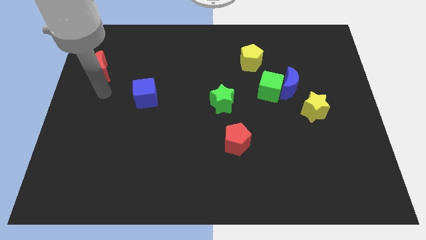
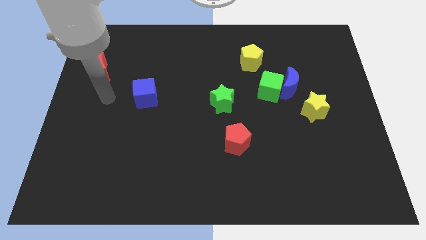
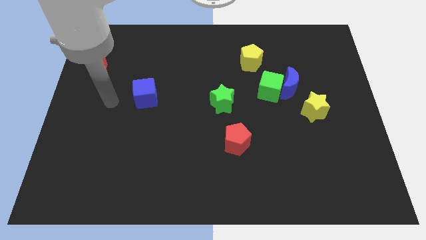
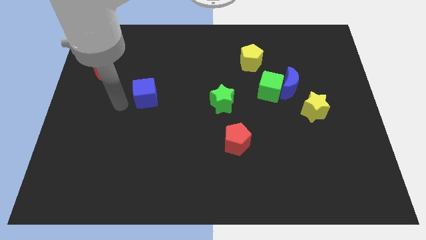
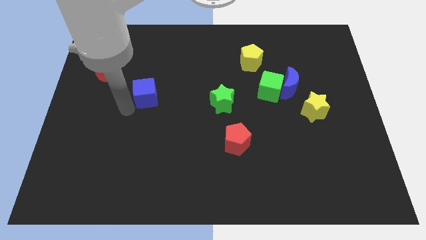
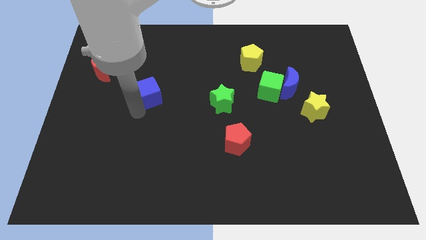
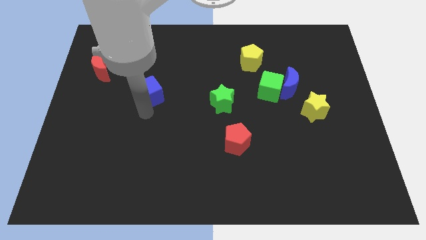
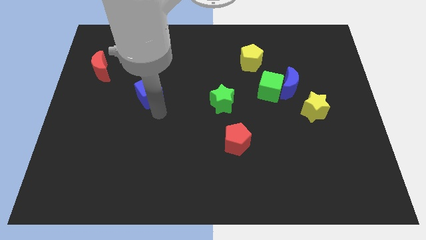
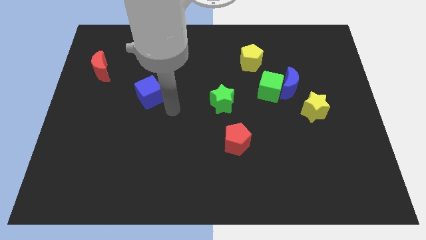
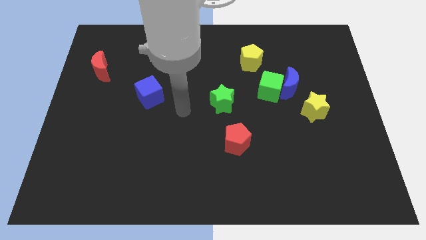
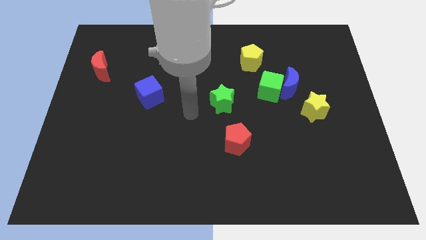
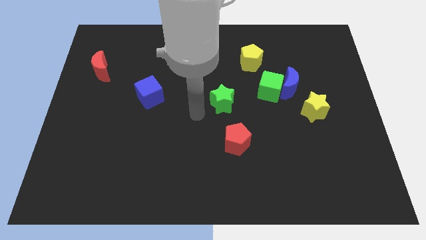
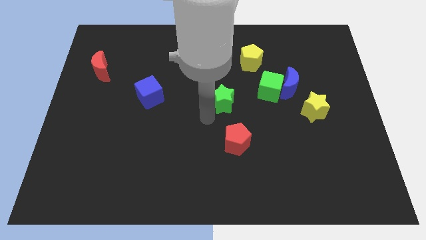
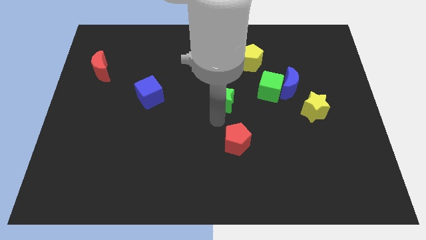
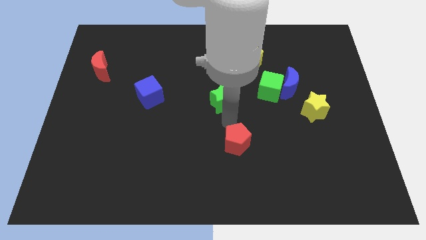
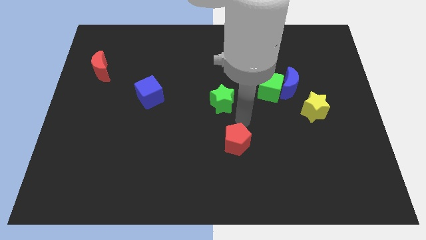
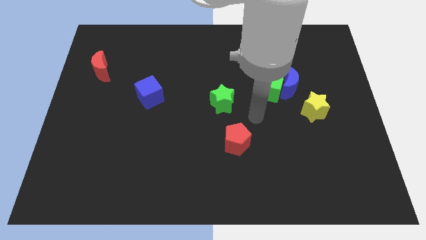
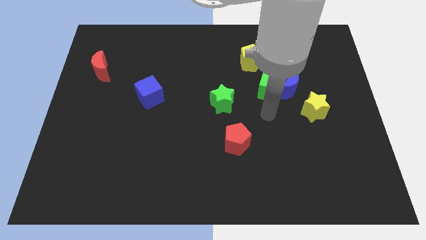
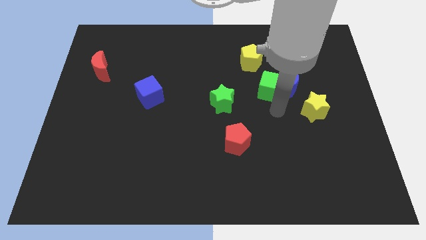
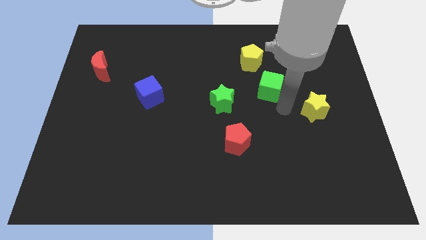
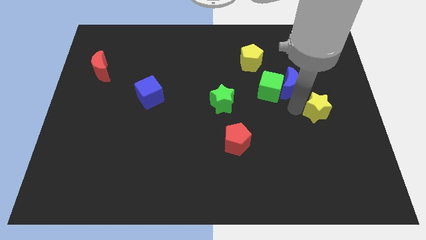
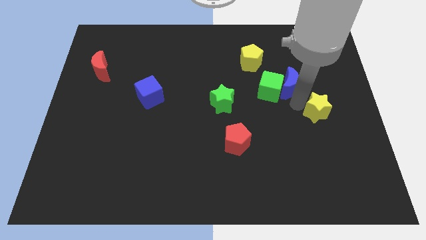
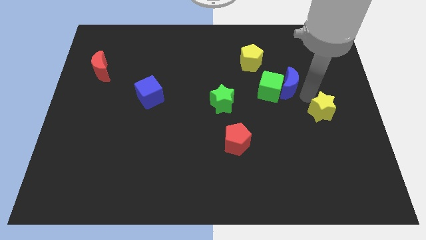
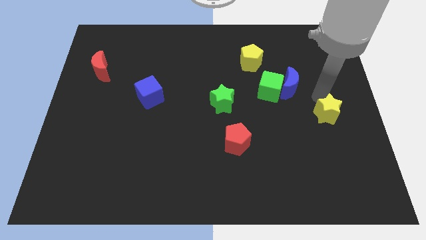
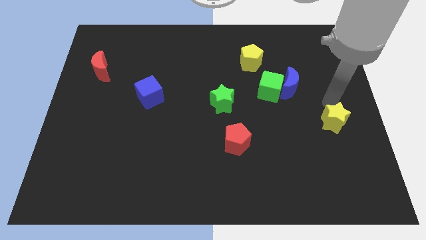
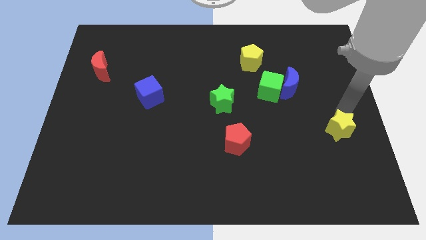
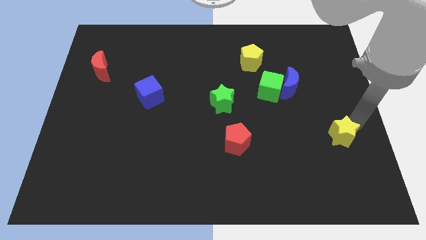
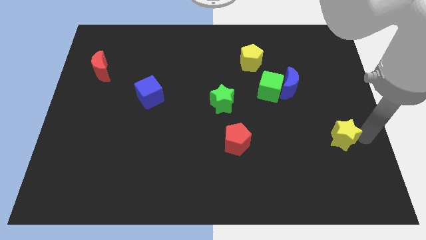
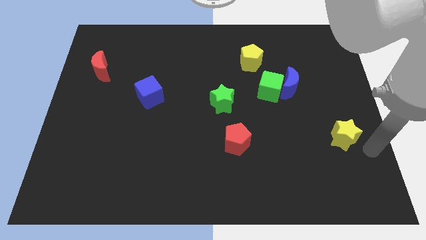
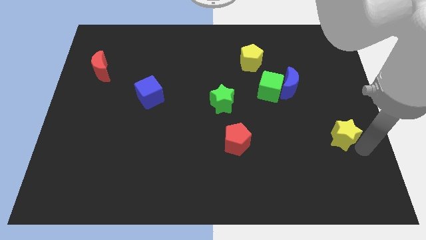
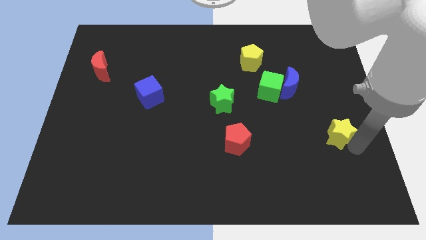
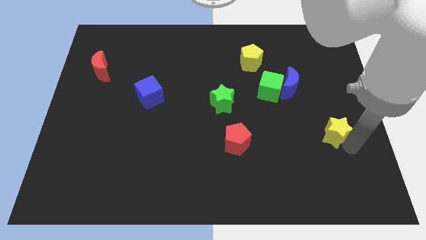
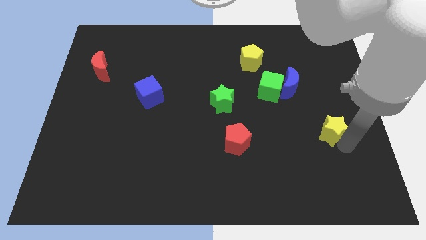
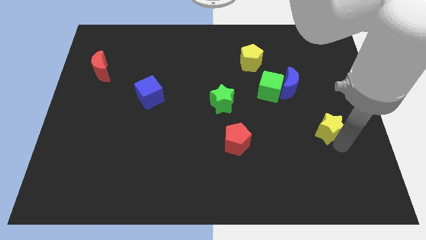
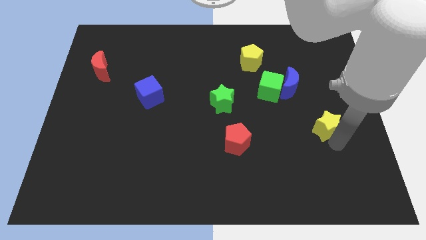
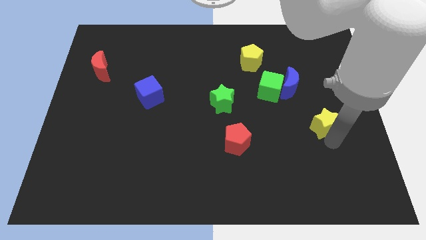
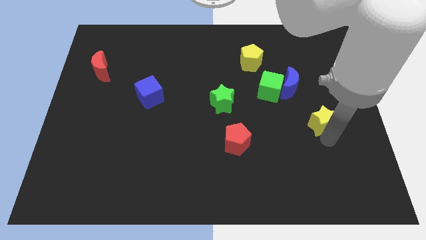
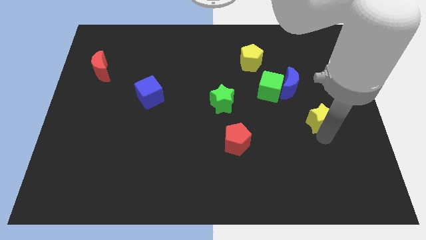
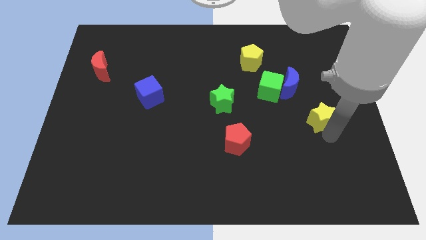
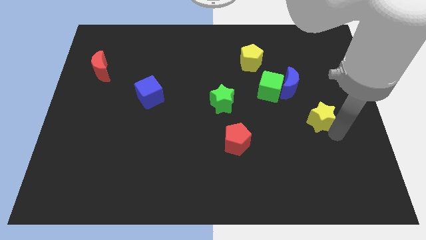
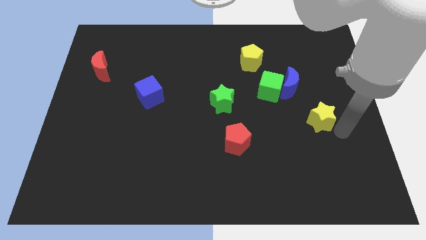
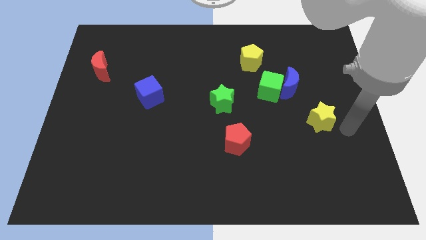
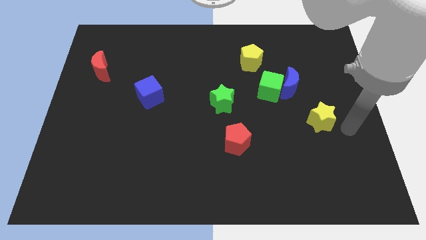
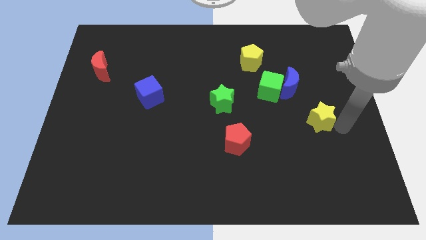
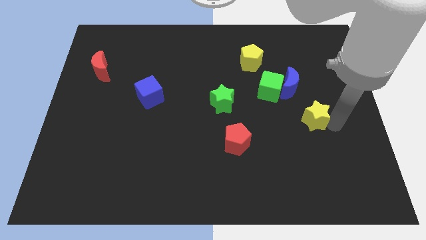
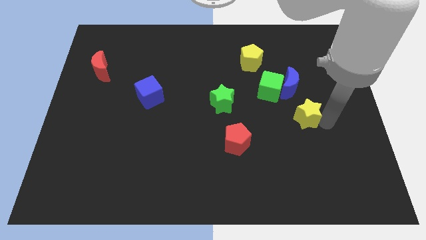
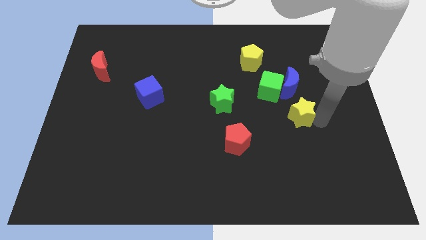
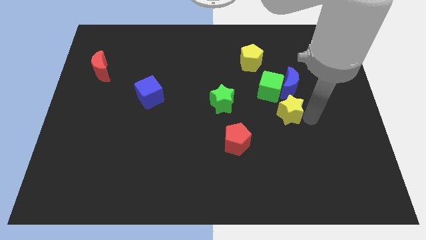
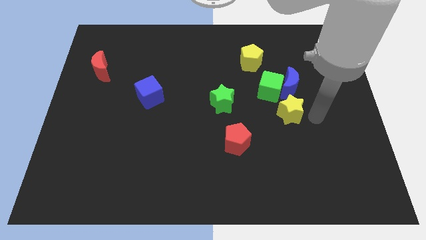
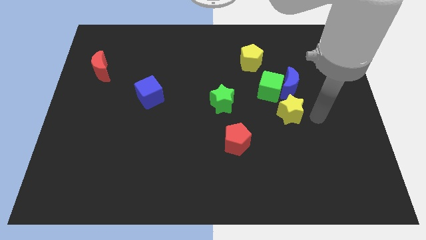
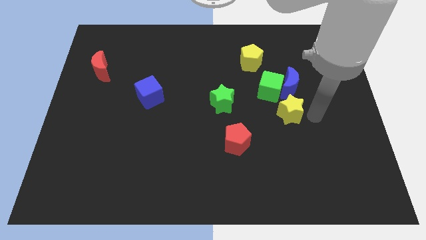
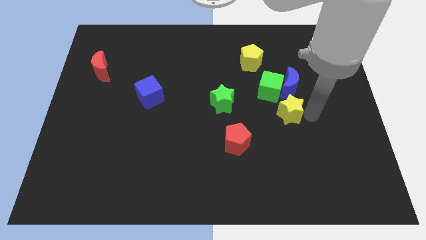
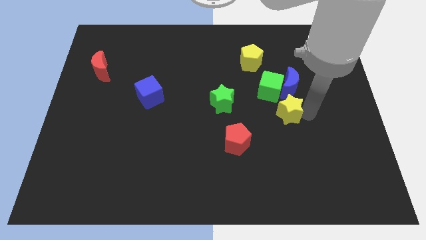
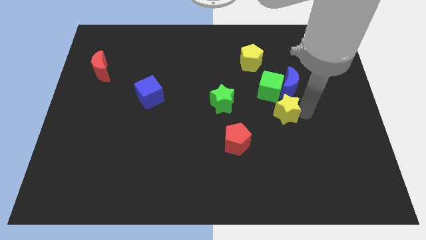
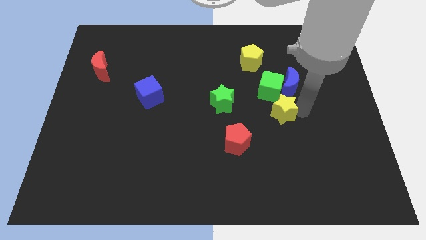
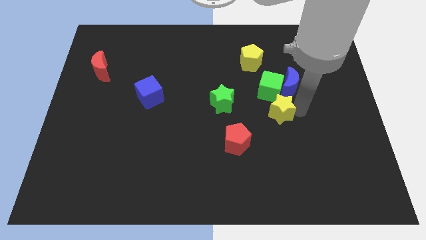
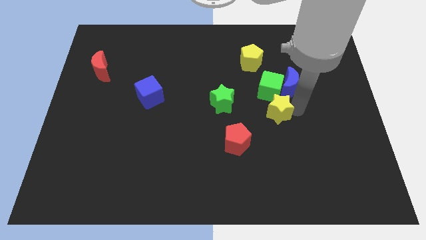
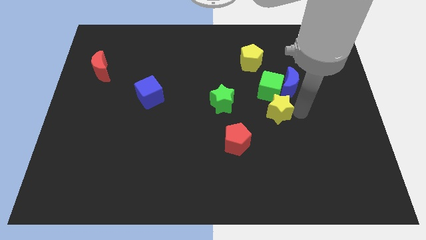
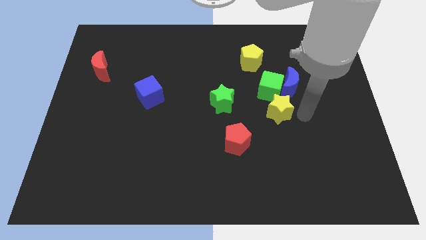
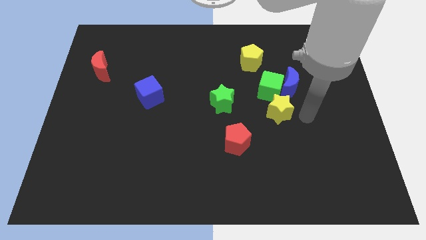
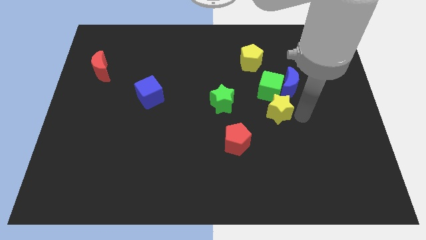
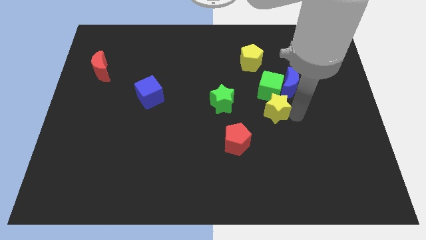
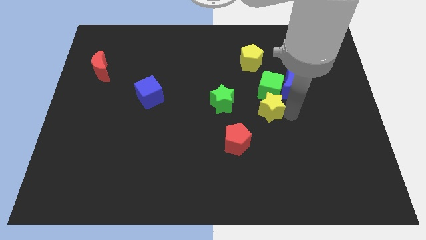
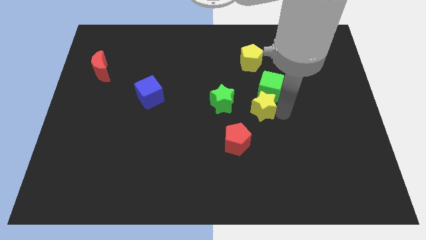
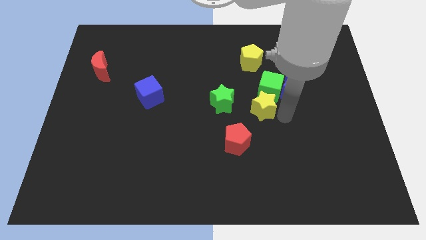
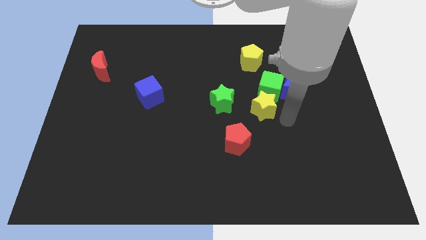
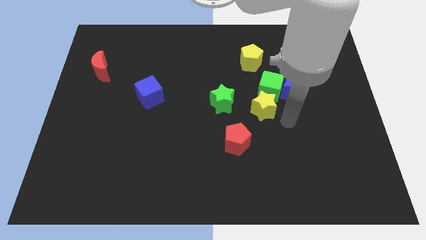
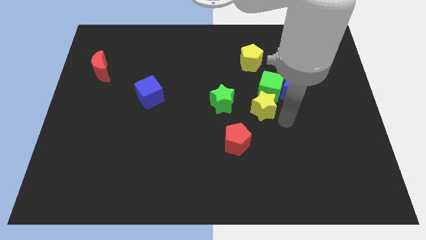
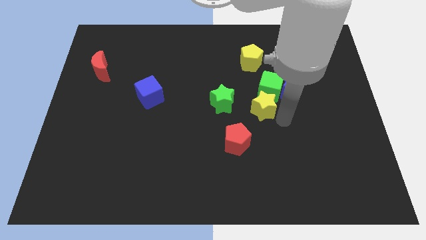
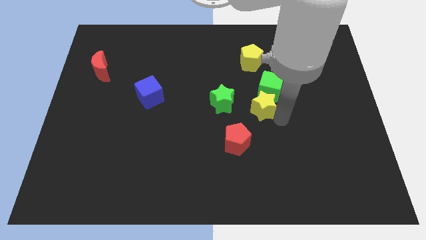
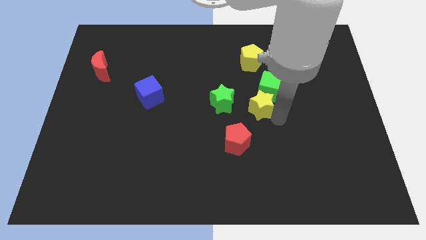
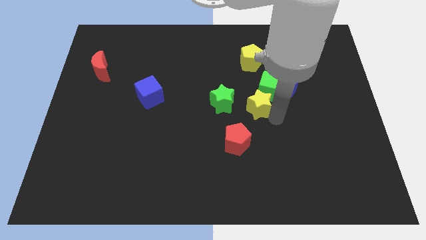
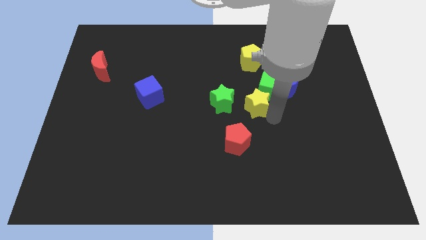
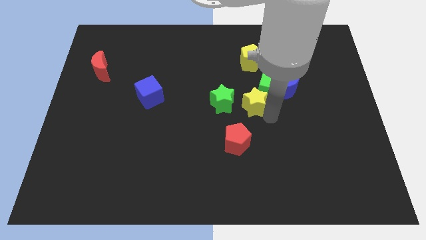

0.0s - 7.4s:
slide the yellow star to the top of the red pentagon
